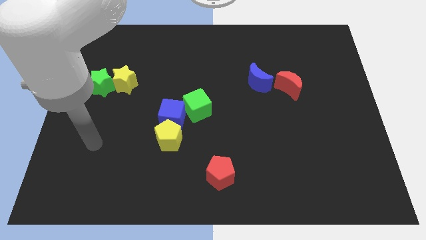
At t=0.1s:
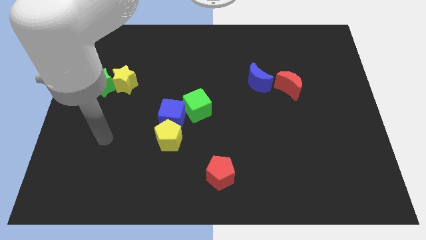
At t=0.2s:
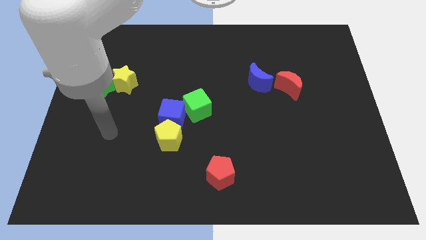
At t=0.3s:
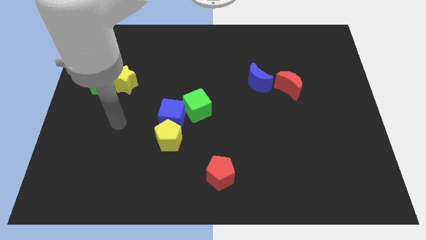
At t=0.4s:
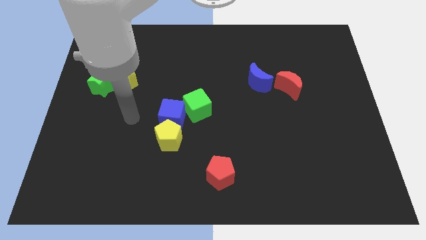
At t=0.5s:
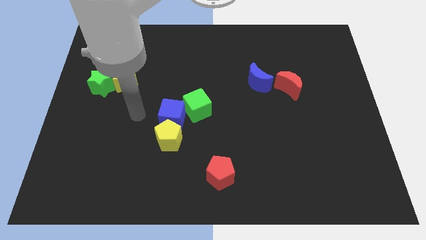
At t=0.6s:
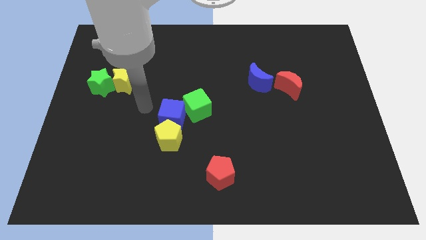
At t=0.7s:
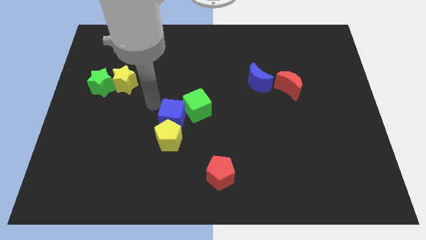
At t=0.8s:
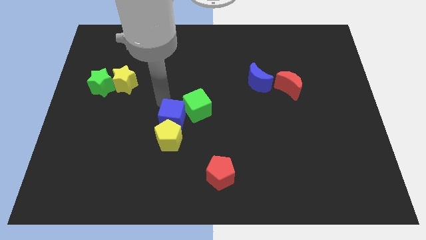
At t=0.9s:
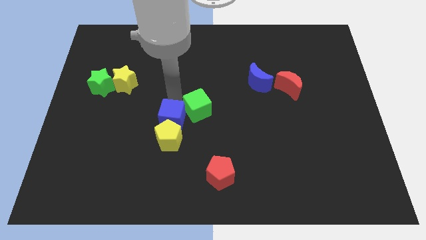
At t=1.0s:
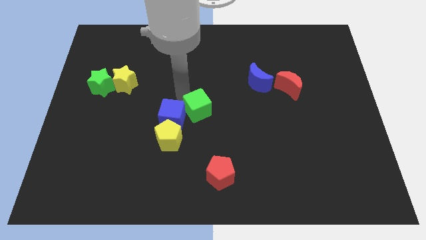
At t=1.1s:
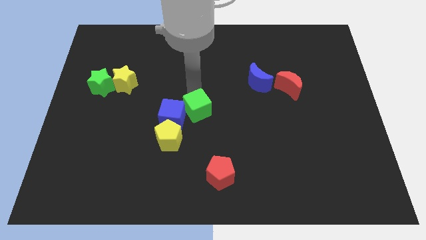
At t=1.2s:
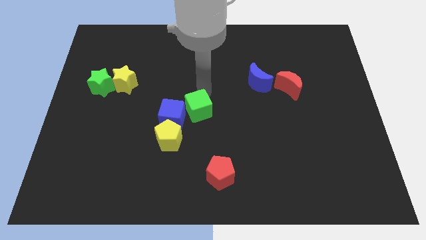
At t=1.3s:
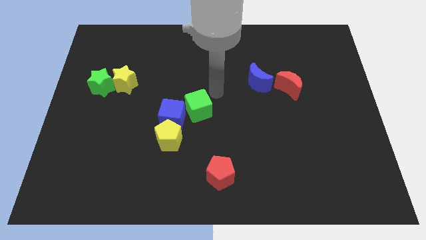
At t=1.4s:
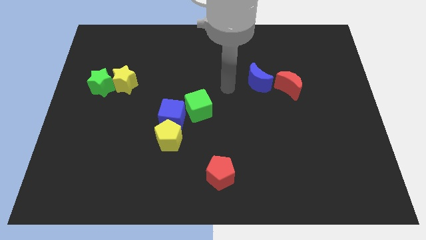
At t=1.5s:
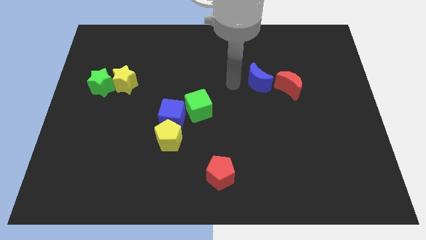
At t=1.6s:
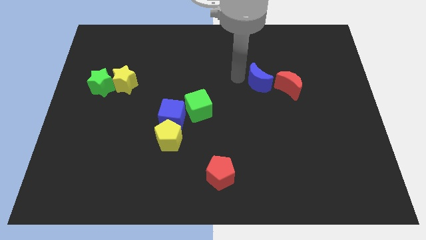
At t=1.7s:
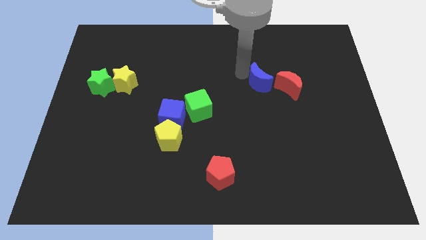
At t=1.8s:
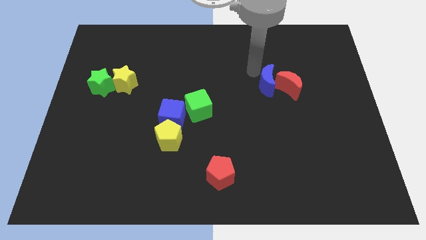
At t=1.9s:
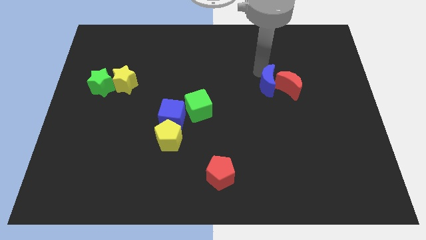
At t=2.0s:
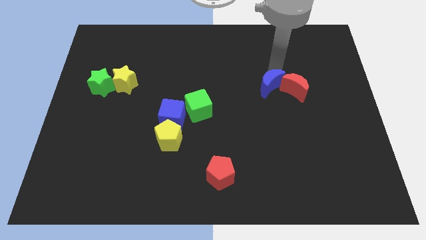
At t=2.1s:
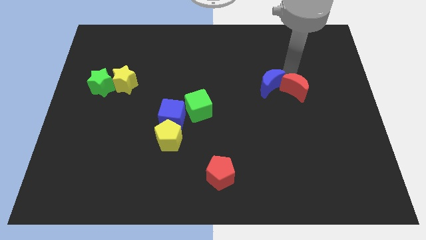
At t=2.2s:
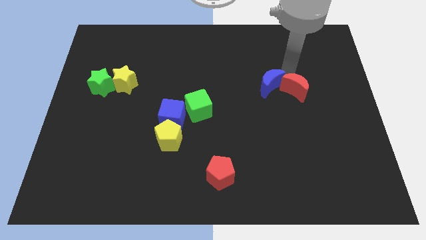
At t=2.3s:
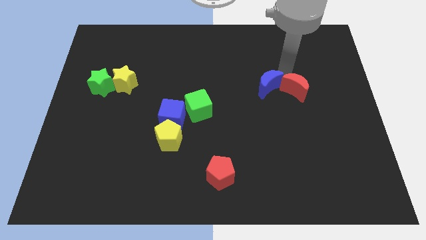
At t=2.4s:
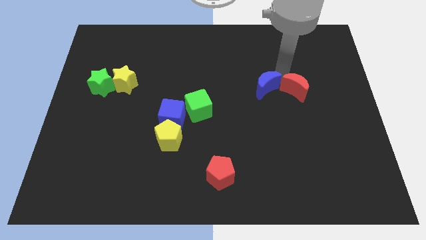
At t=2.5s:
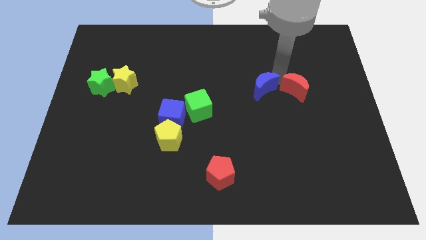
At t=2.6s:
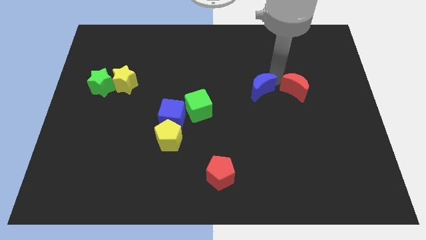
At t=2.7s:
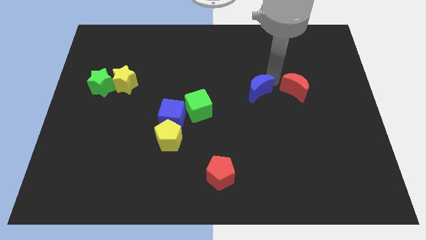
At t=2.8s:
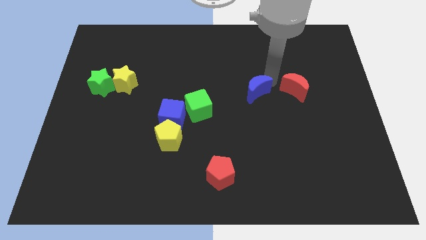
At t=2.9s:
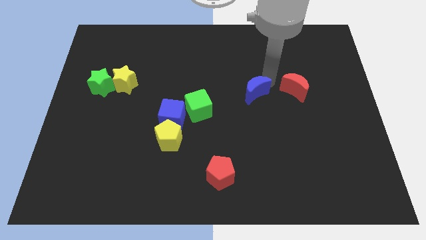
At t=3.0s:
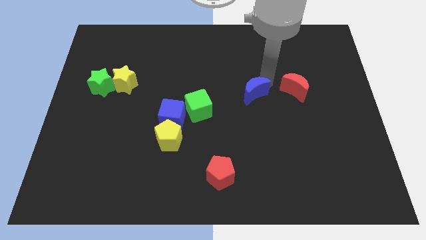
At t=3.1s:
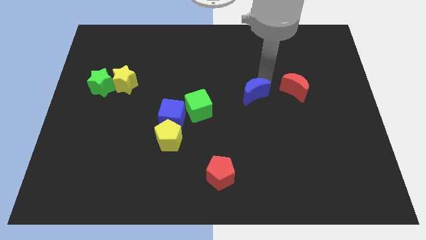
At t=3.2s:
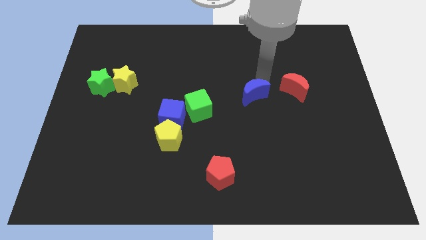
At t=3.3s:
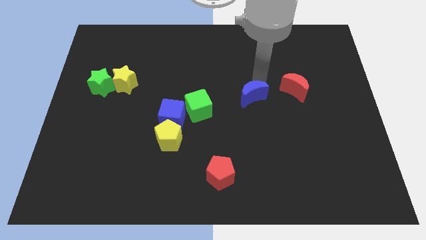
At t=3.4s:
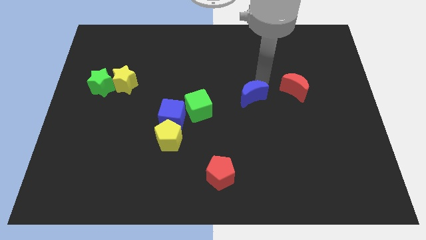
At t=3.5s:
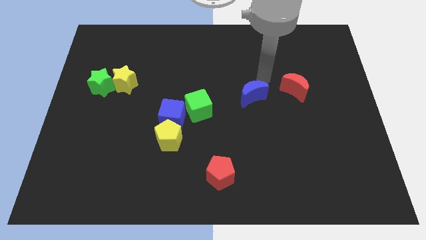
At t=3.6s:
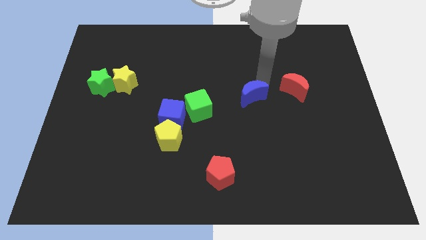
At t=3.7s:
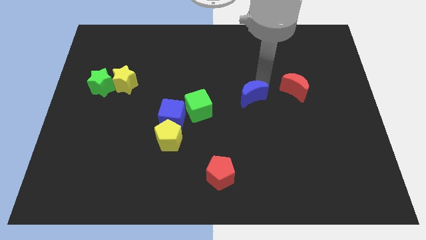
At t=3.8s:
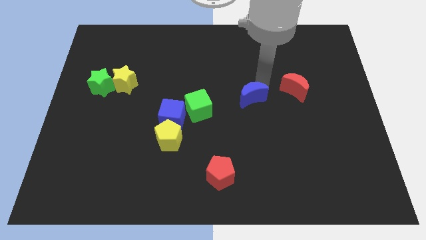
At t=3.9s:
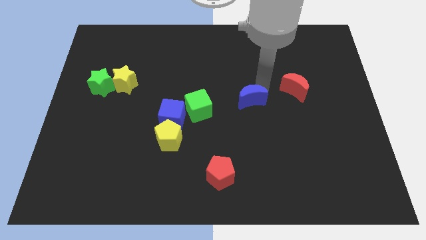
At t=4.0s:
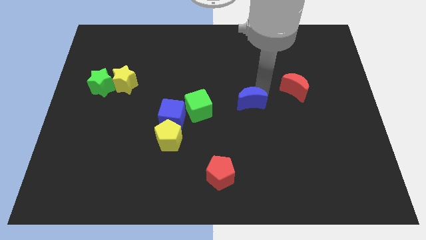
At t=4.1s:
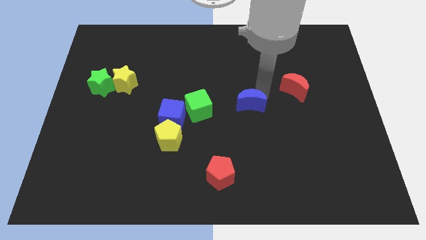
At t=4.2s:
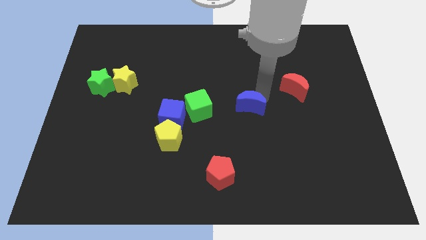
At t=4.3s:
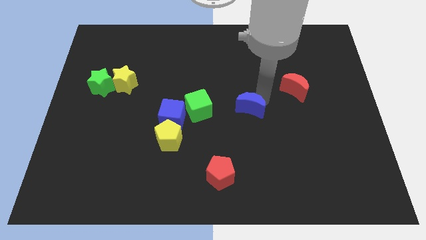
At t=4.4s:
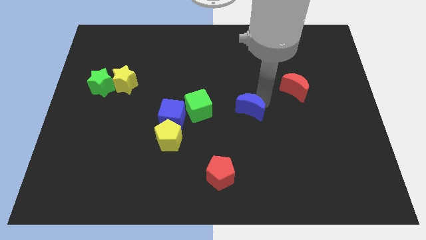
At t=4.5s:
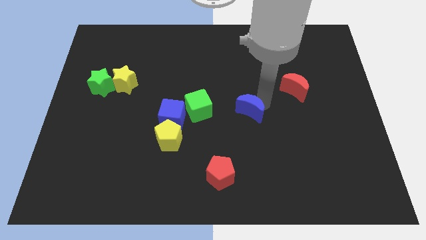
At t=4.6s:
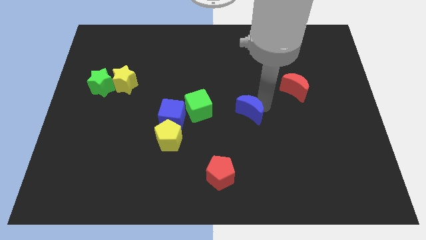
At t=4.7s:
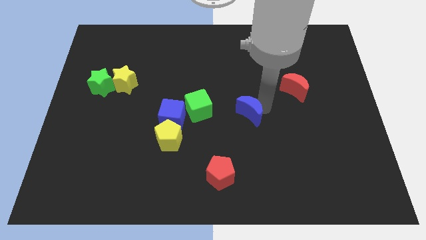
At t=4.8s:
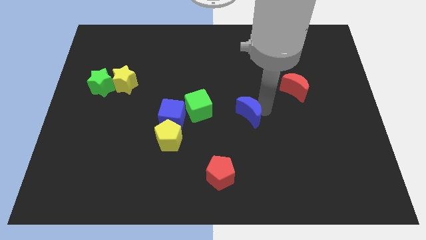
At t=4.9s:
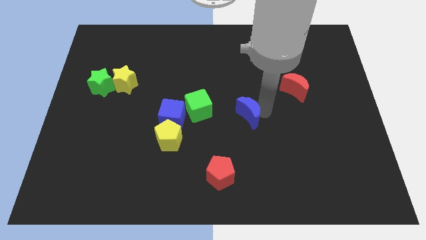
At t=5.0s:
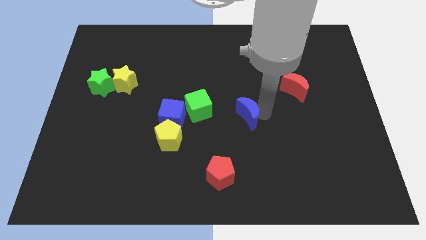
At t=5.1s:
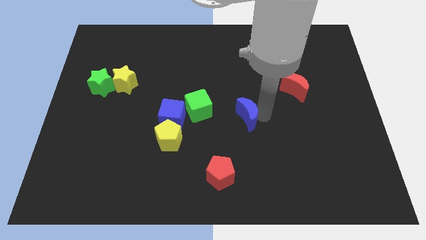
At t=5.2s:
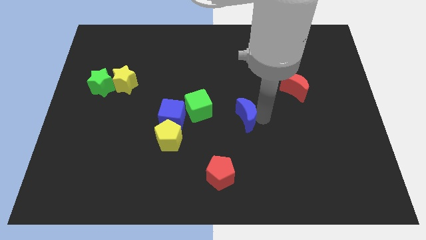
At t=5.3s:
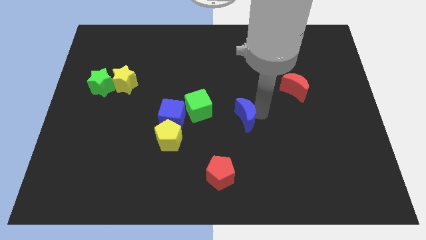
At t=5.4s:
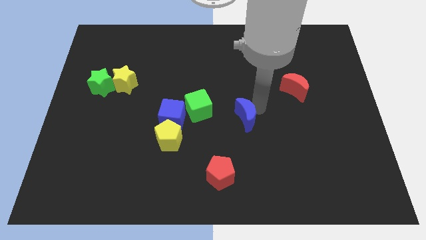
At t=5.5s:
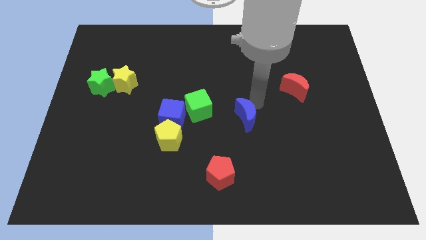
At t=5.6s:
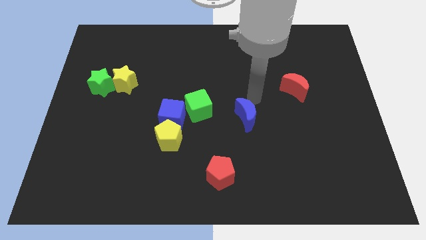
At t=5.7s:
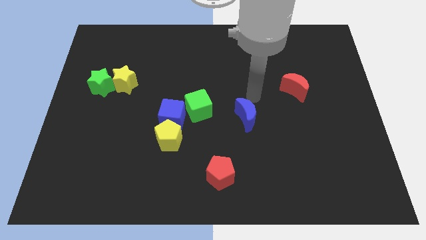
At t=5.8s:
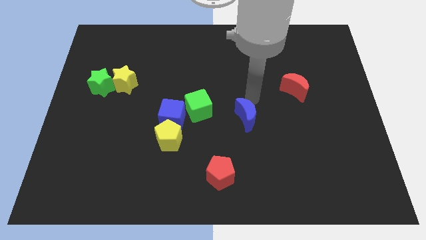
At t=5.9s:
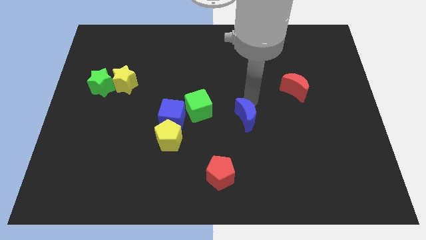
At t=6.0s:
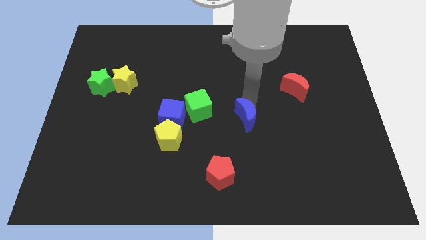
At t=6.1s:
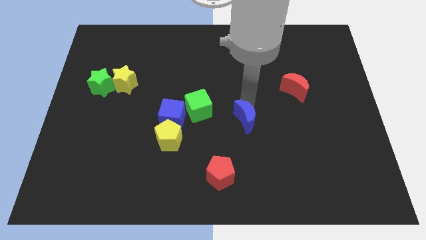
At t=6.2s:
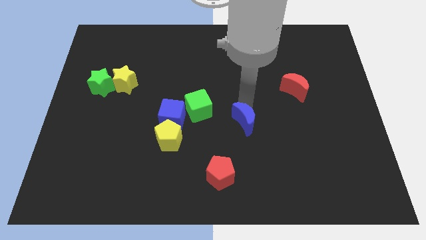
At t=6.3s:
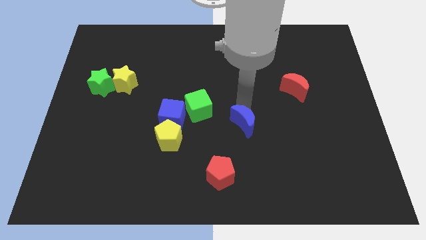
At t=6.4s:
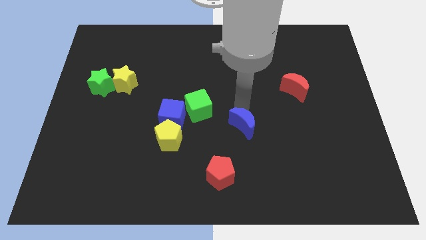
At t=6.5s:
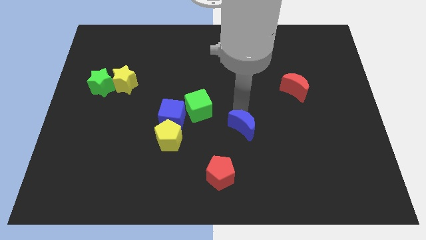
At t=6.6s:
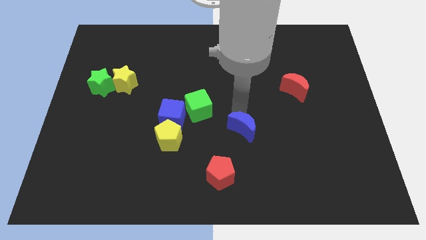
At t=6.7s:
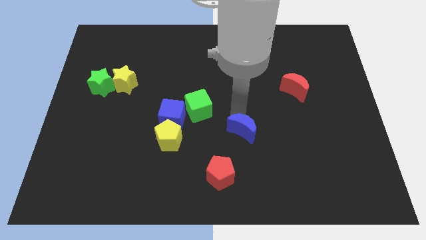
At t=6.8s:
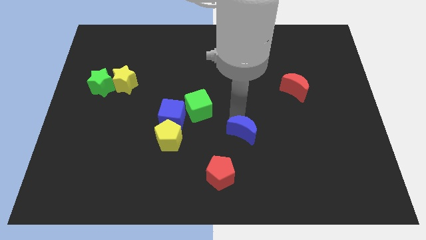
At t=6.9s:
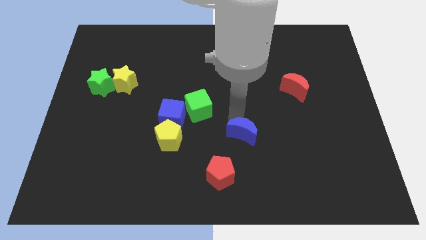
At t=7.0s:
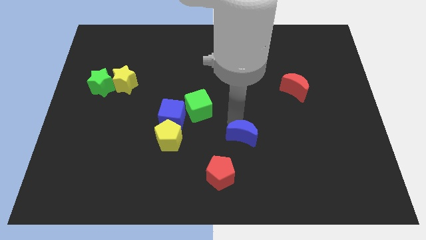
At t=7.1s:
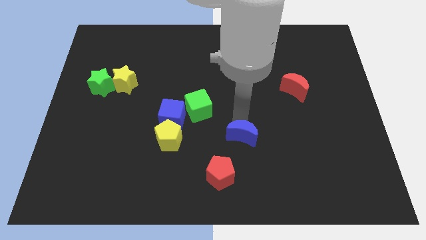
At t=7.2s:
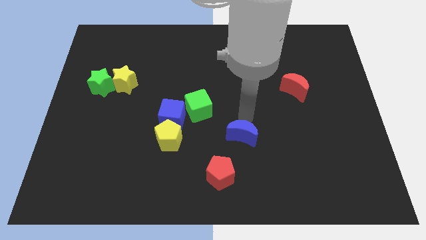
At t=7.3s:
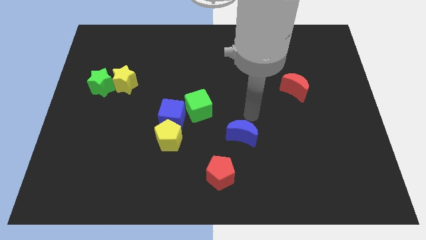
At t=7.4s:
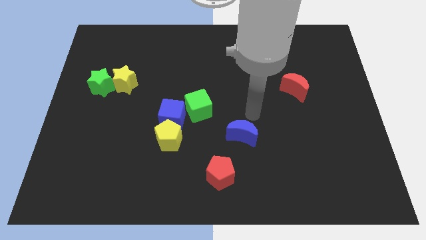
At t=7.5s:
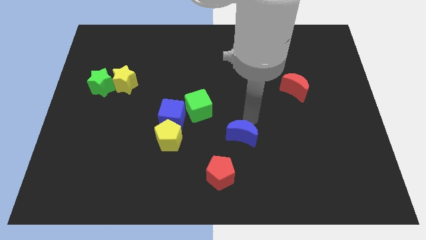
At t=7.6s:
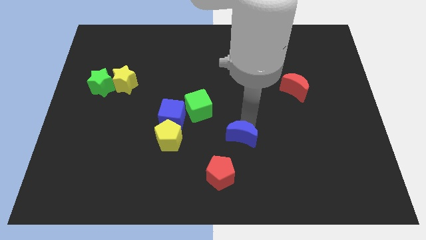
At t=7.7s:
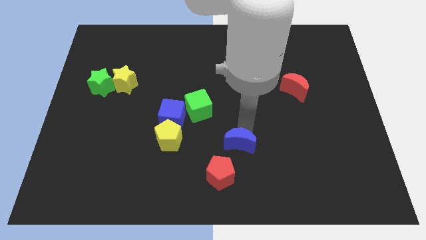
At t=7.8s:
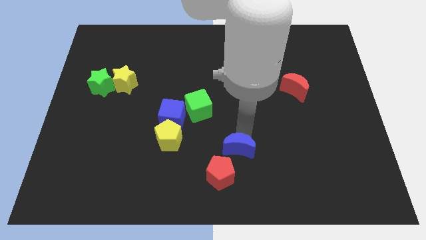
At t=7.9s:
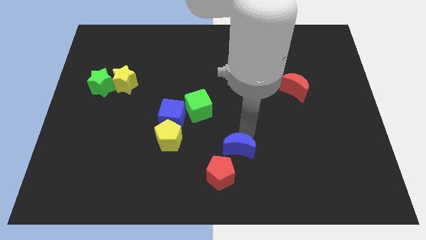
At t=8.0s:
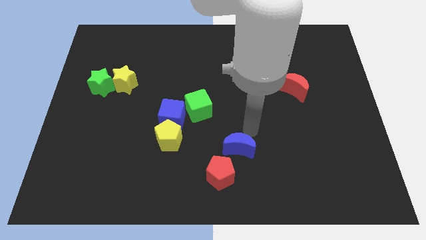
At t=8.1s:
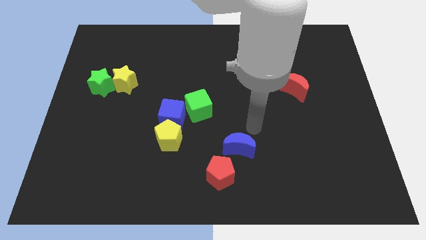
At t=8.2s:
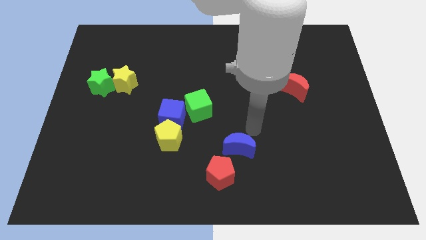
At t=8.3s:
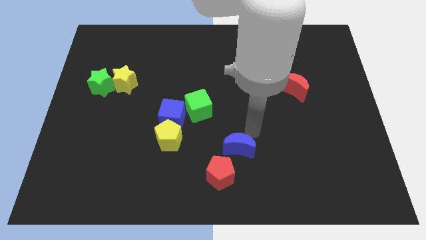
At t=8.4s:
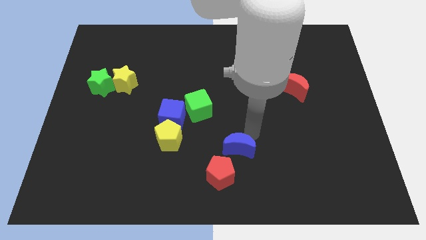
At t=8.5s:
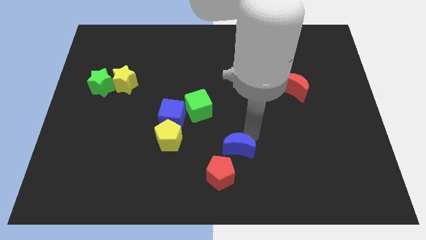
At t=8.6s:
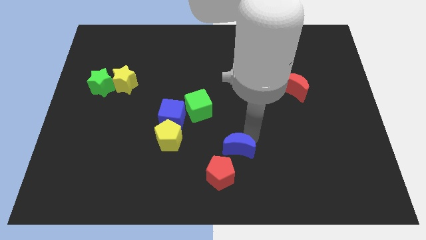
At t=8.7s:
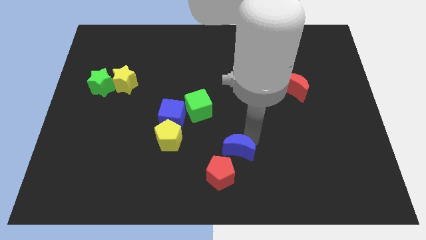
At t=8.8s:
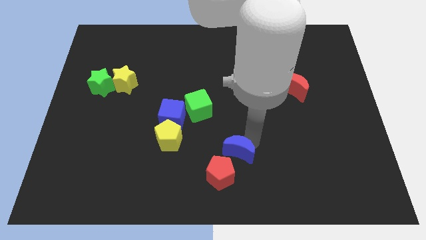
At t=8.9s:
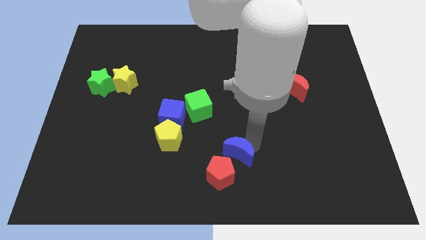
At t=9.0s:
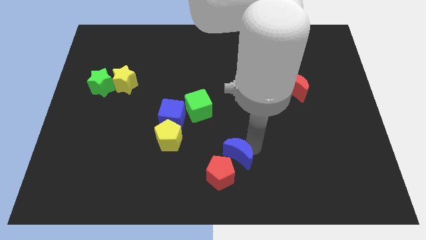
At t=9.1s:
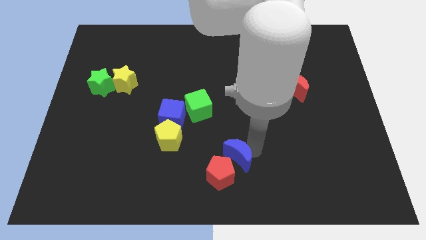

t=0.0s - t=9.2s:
push the blue moon towards the red pentagon
